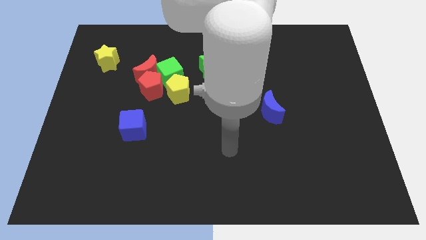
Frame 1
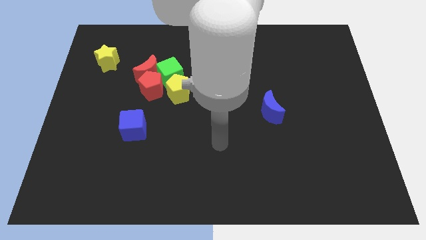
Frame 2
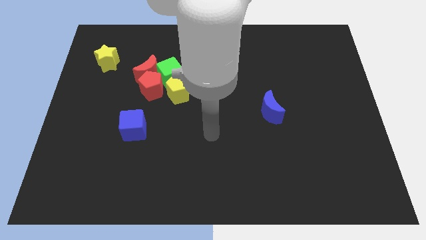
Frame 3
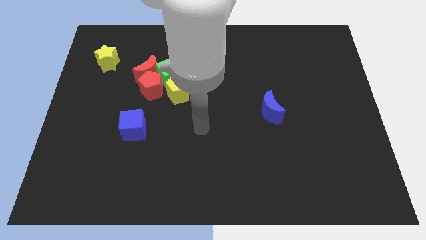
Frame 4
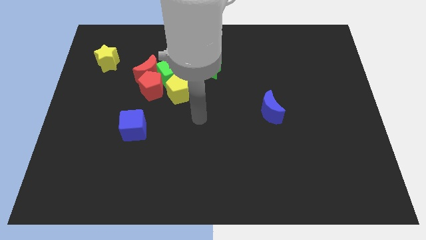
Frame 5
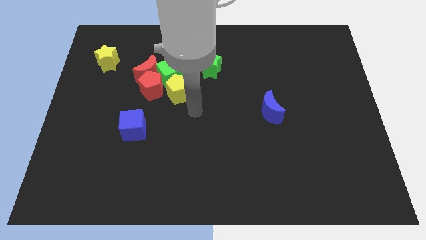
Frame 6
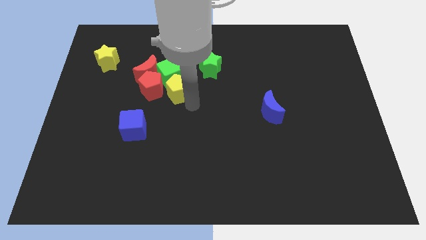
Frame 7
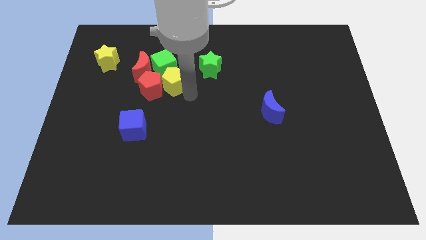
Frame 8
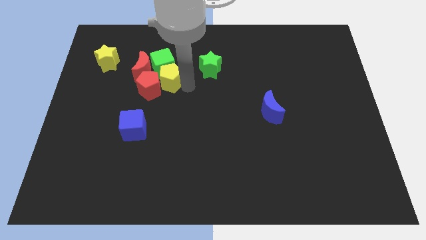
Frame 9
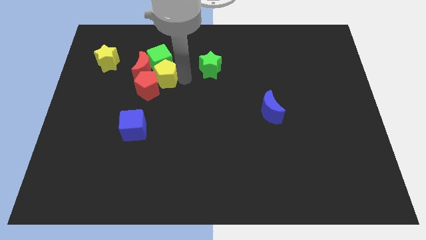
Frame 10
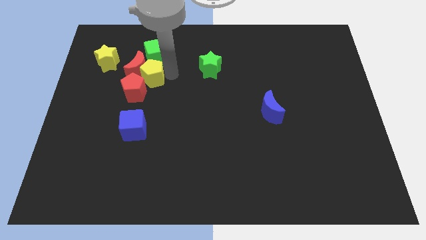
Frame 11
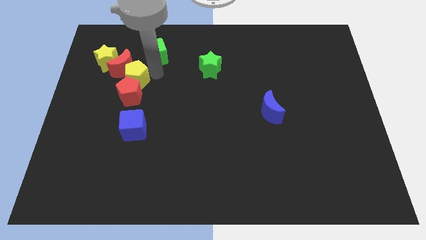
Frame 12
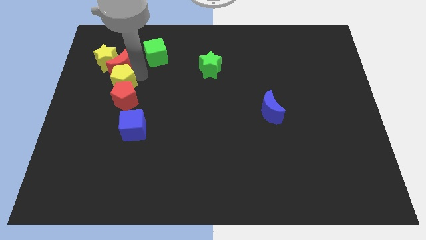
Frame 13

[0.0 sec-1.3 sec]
pull the red pentagon apart from the group of blocks

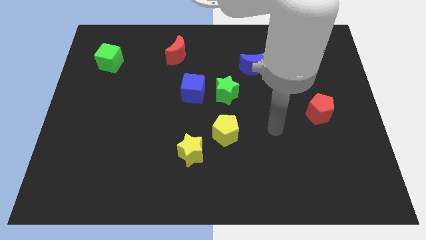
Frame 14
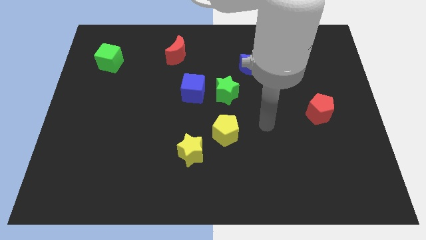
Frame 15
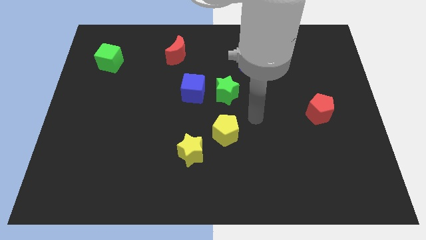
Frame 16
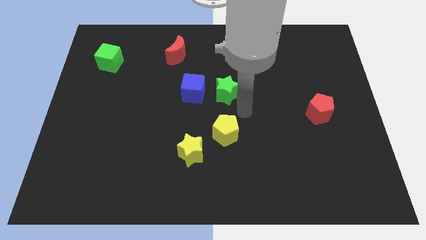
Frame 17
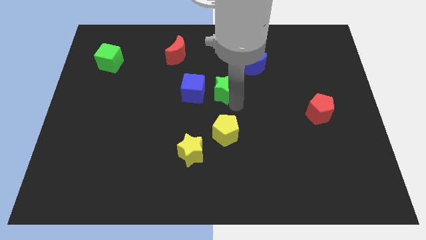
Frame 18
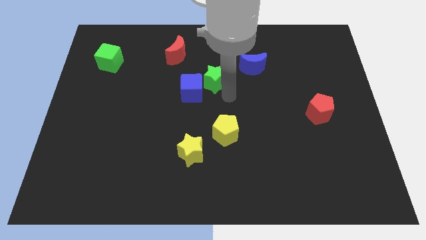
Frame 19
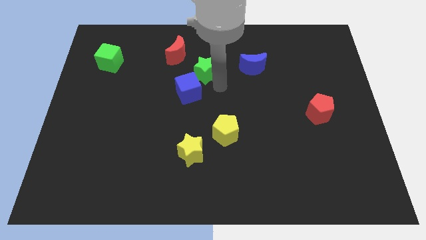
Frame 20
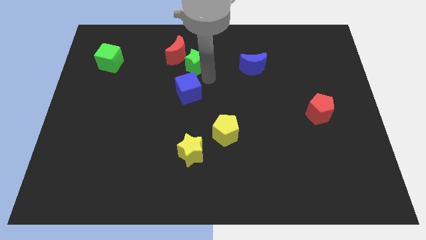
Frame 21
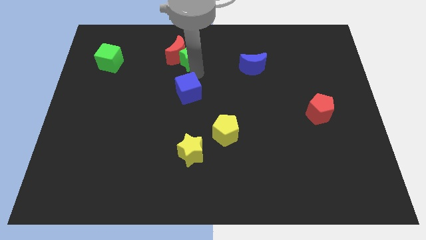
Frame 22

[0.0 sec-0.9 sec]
move the blue cube away from the green star

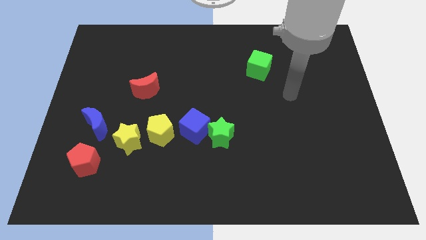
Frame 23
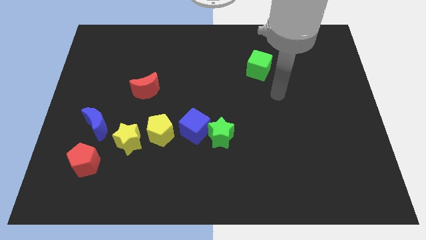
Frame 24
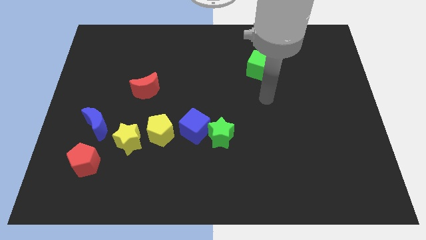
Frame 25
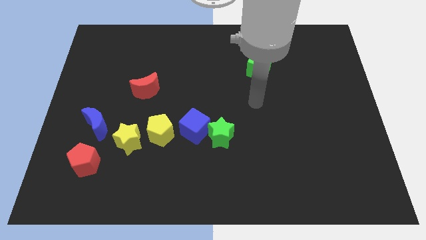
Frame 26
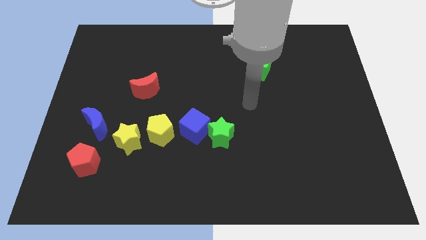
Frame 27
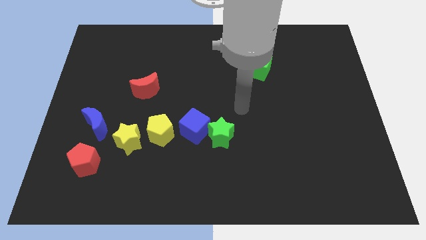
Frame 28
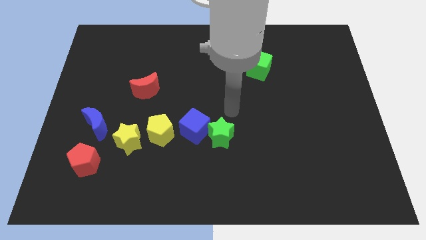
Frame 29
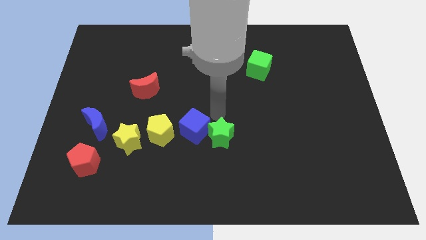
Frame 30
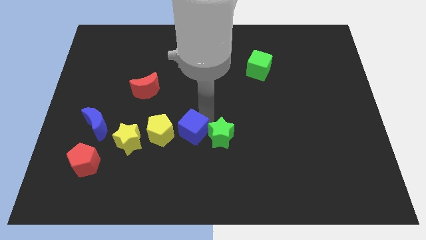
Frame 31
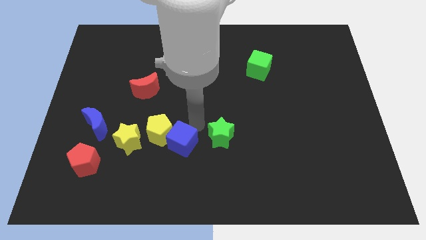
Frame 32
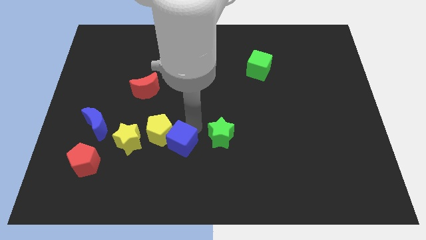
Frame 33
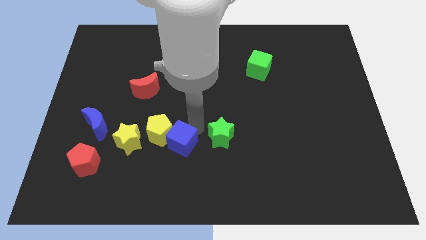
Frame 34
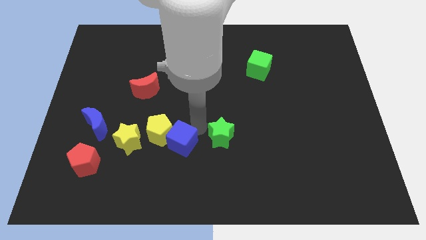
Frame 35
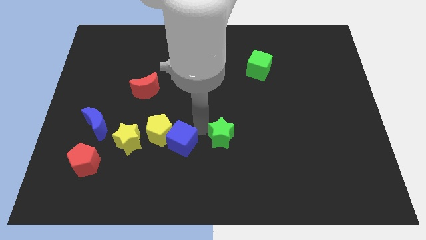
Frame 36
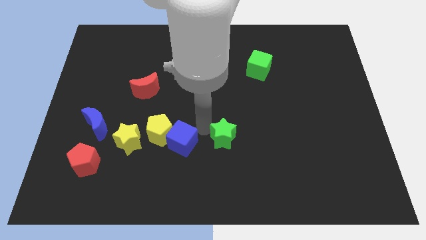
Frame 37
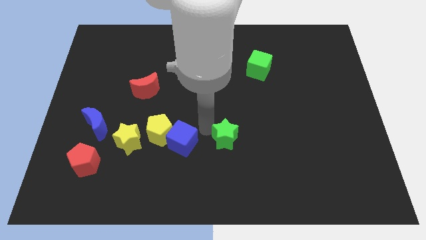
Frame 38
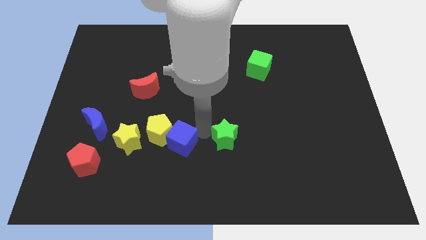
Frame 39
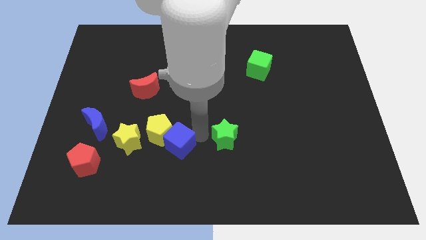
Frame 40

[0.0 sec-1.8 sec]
separate the green star from the blue cube

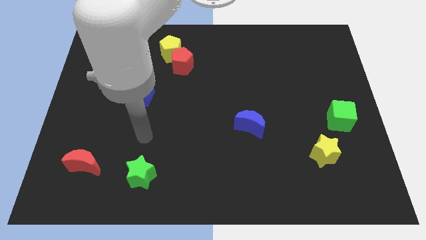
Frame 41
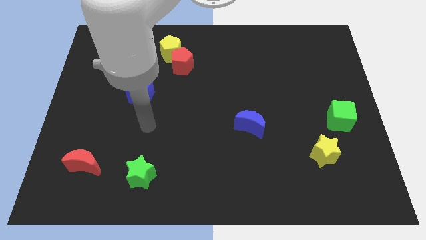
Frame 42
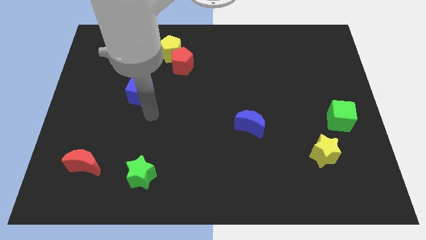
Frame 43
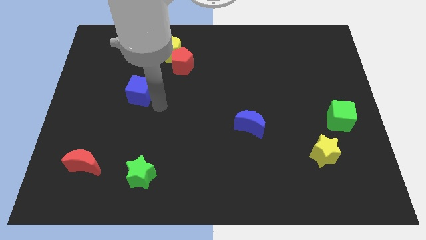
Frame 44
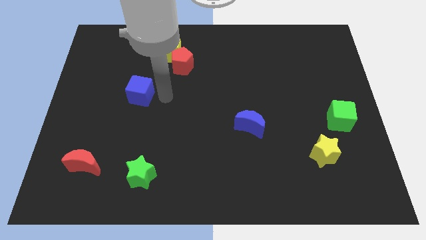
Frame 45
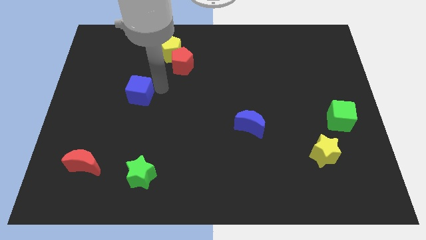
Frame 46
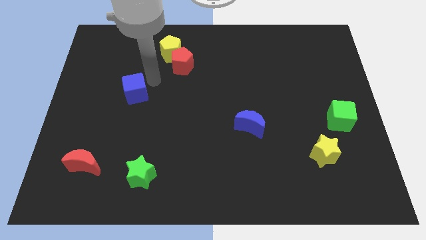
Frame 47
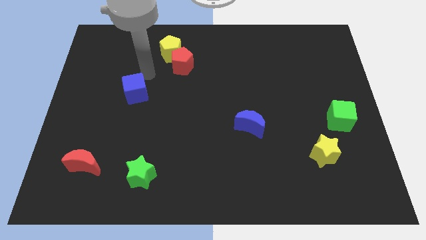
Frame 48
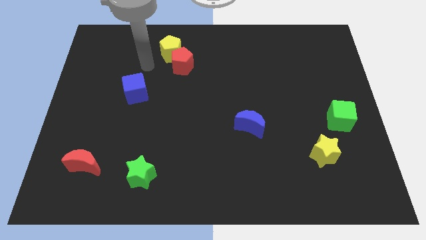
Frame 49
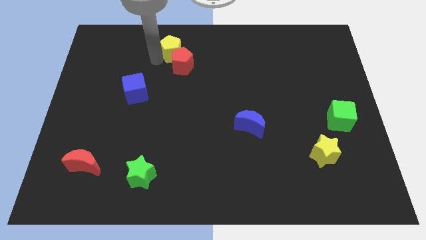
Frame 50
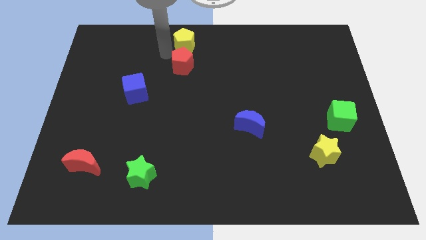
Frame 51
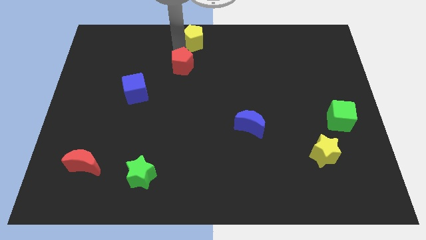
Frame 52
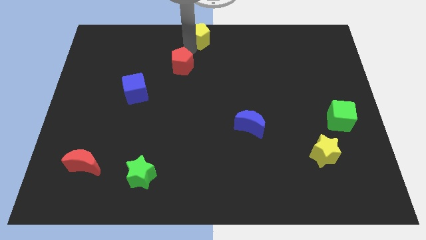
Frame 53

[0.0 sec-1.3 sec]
pull the red pentagon apart from the yellow pentagon

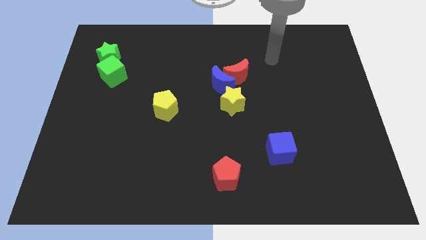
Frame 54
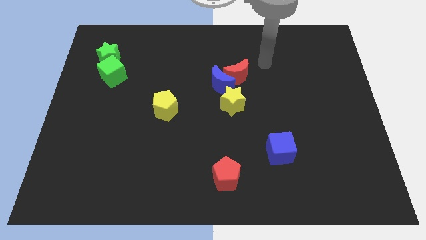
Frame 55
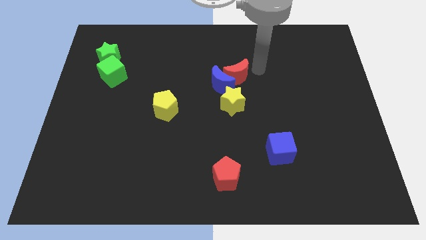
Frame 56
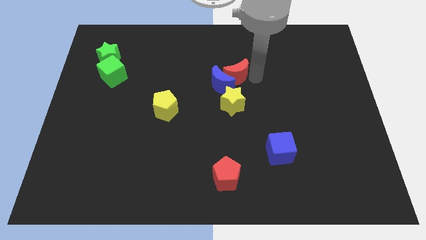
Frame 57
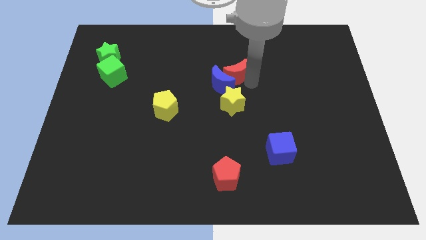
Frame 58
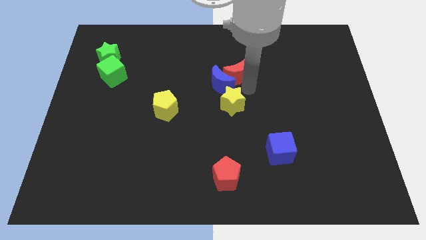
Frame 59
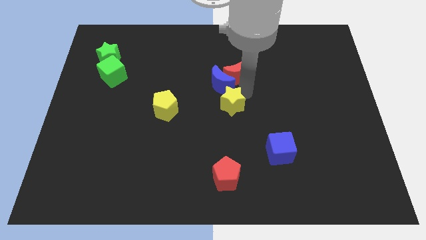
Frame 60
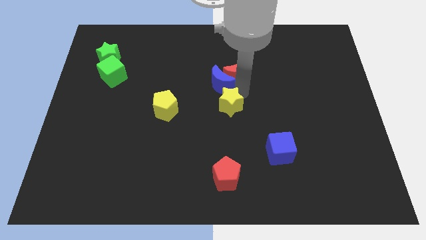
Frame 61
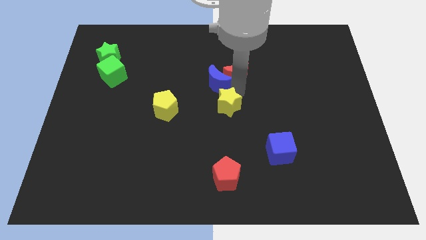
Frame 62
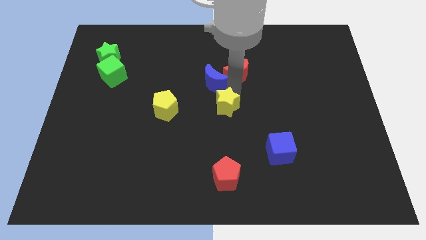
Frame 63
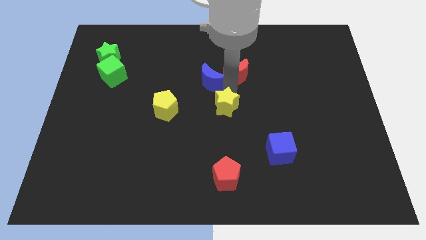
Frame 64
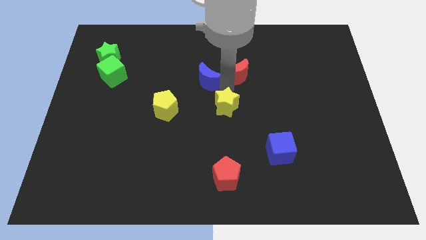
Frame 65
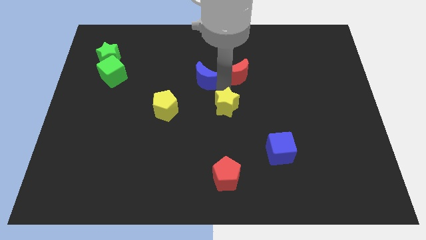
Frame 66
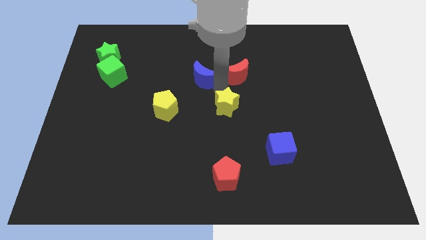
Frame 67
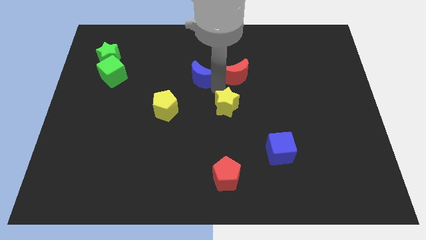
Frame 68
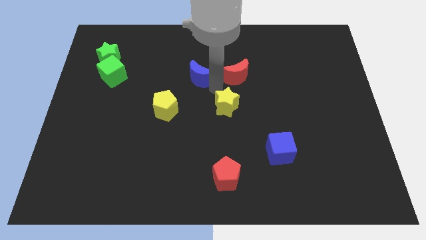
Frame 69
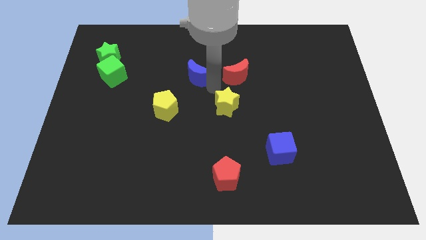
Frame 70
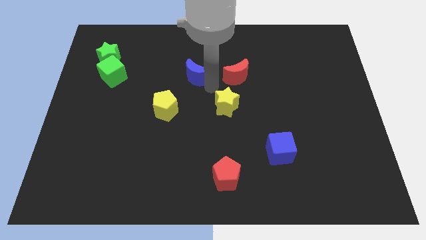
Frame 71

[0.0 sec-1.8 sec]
pull the blue moon apart from the red moon and yellow star

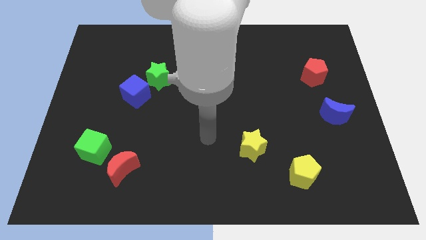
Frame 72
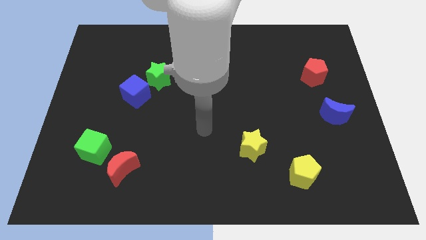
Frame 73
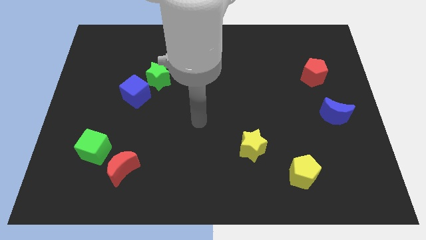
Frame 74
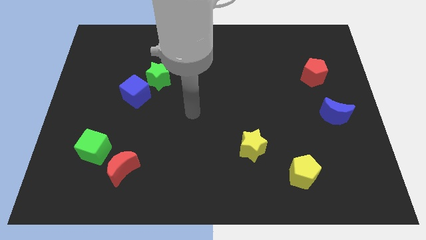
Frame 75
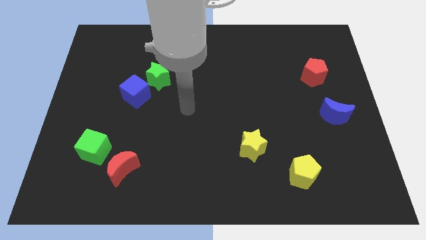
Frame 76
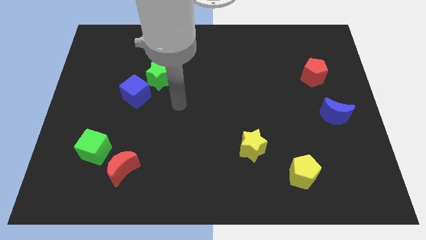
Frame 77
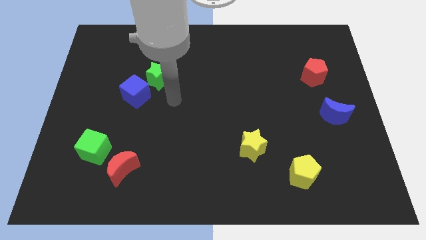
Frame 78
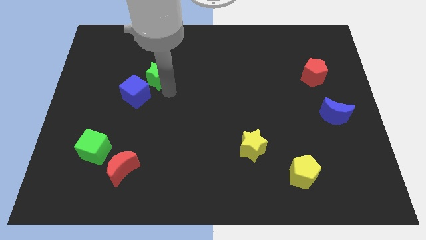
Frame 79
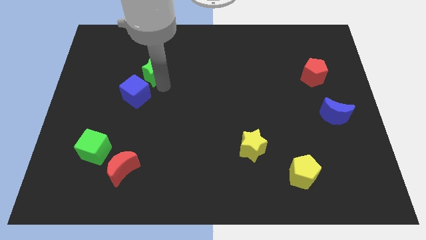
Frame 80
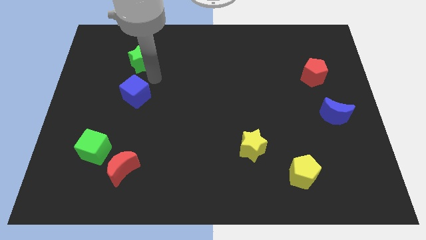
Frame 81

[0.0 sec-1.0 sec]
separate the blue cube from the green star

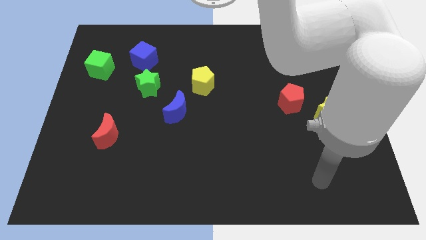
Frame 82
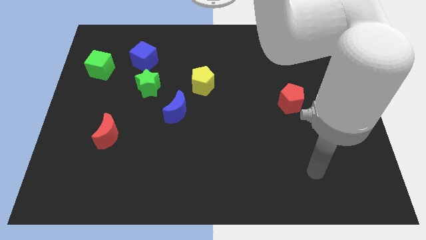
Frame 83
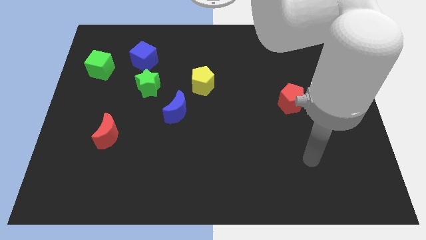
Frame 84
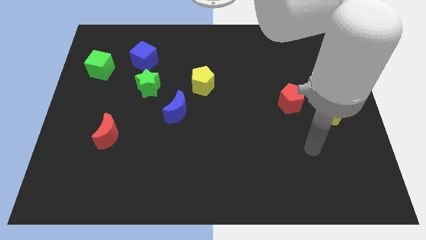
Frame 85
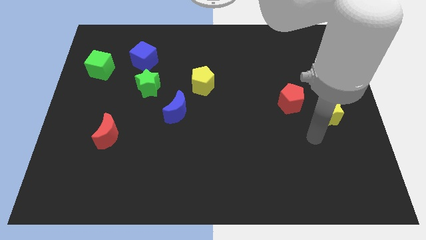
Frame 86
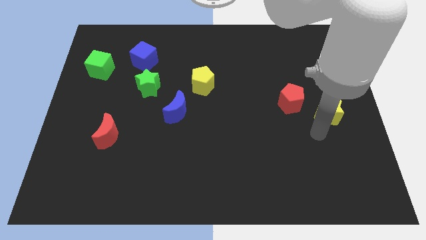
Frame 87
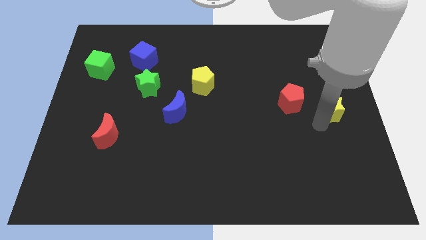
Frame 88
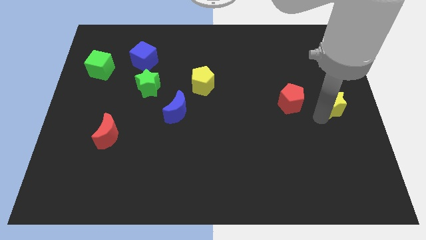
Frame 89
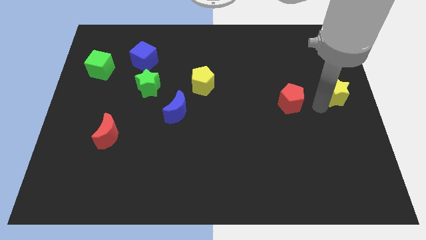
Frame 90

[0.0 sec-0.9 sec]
move the red pentagon away from the yellow star

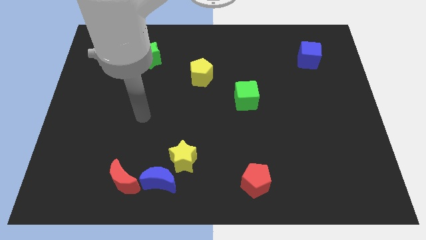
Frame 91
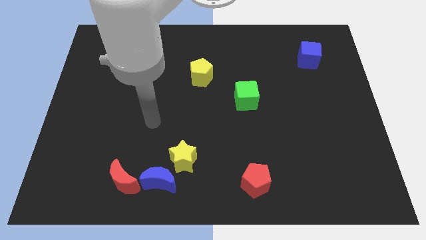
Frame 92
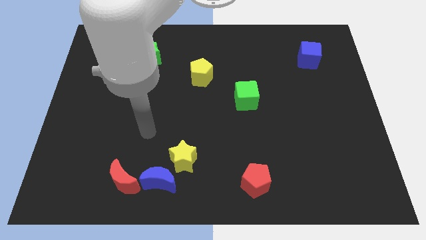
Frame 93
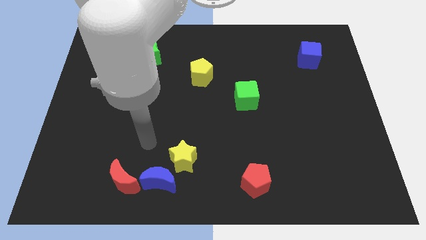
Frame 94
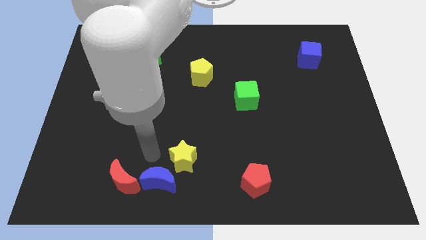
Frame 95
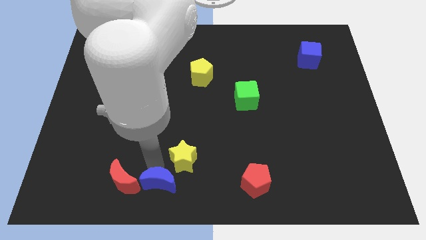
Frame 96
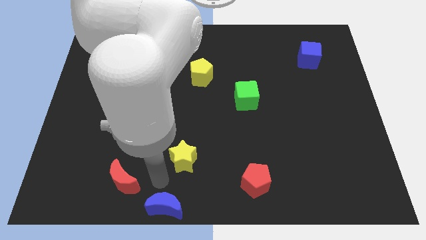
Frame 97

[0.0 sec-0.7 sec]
pull the yellow star apart from the blue moon
